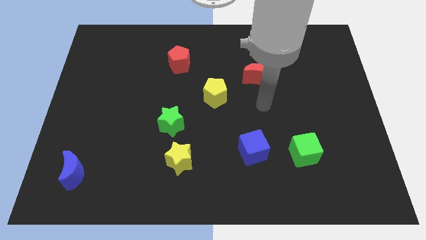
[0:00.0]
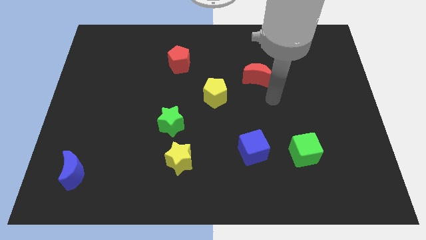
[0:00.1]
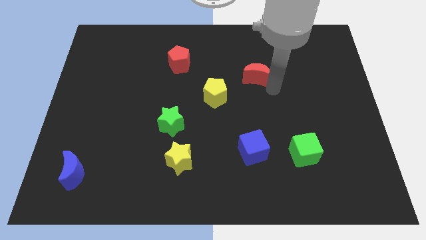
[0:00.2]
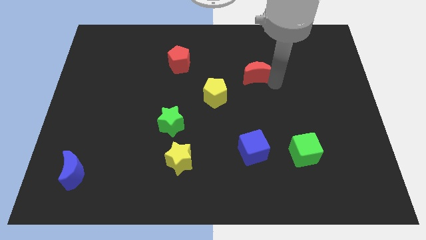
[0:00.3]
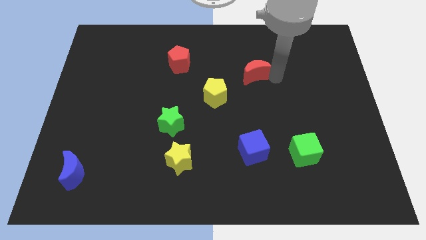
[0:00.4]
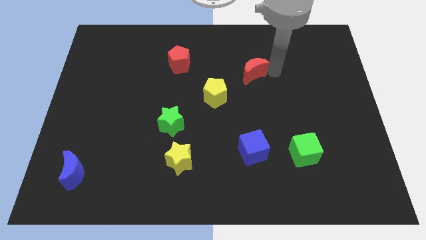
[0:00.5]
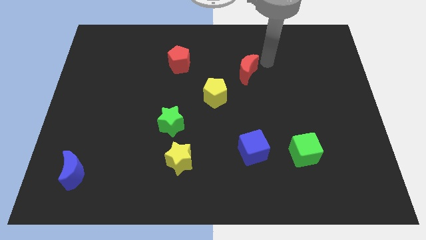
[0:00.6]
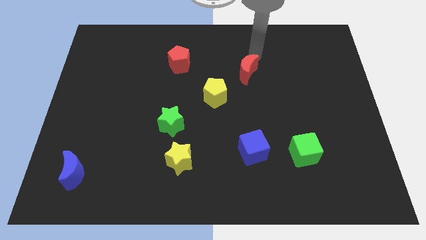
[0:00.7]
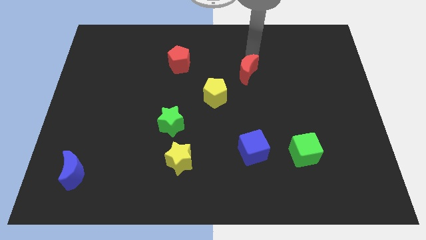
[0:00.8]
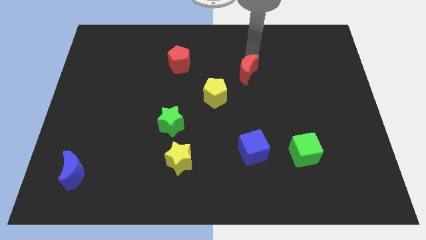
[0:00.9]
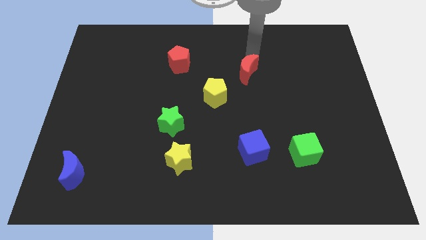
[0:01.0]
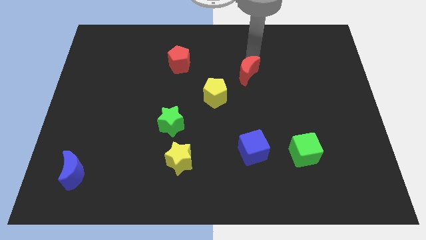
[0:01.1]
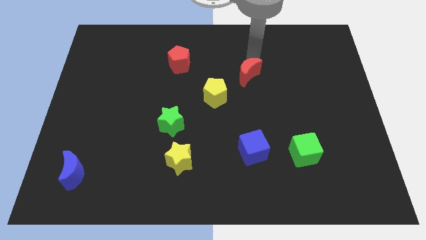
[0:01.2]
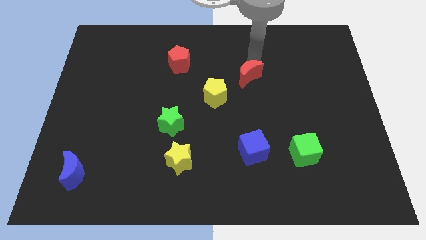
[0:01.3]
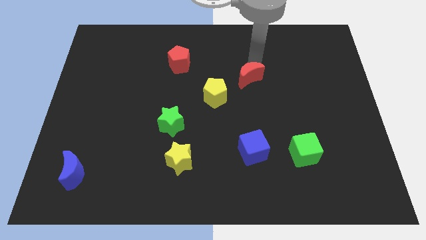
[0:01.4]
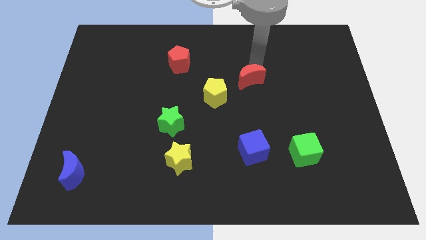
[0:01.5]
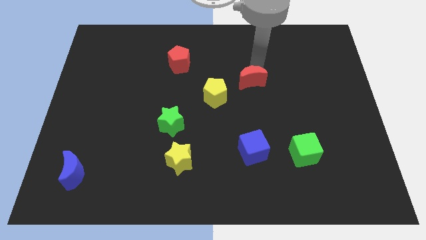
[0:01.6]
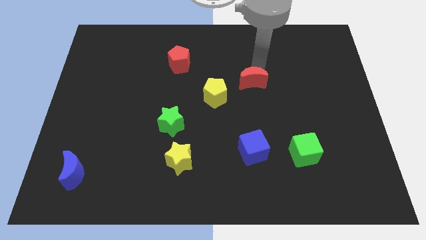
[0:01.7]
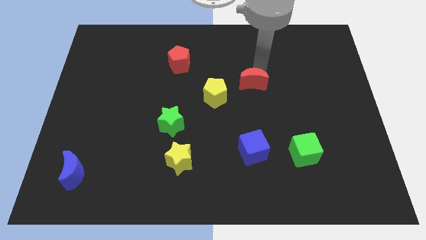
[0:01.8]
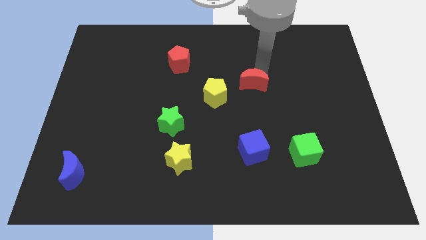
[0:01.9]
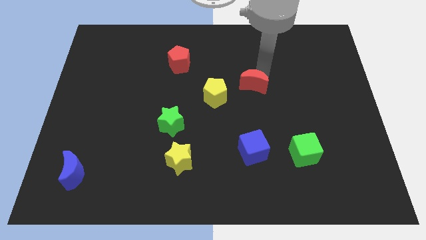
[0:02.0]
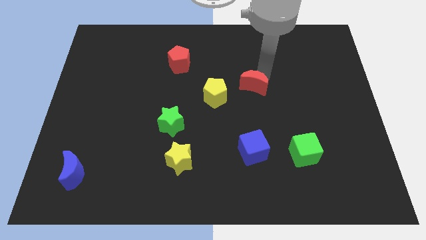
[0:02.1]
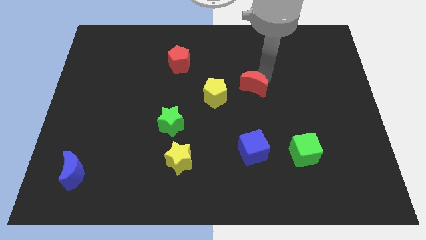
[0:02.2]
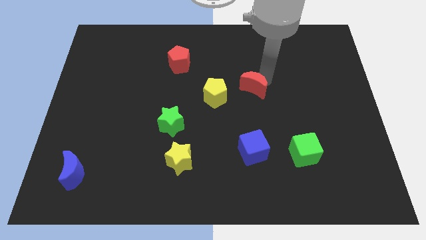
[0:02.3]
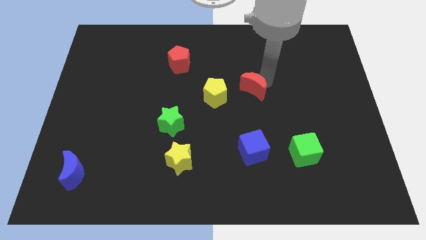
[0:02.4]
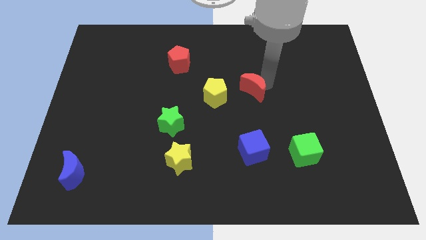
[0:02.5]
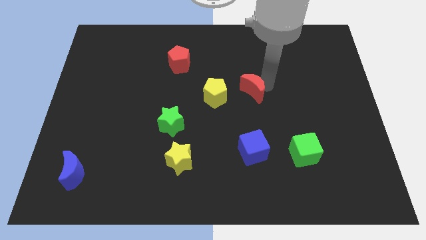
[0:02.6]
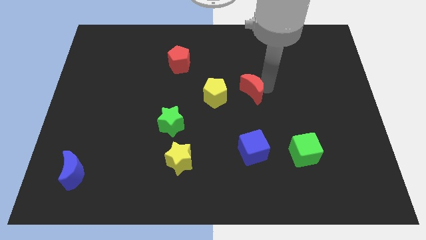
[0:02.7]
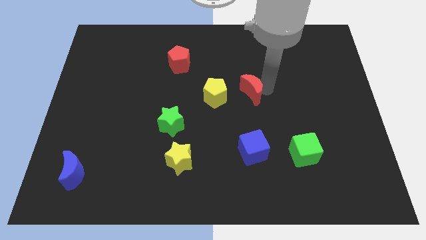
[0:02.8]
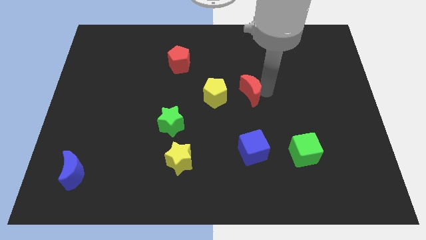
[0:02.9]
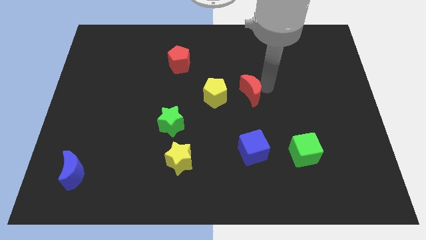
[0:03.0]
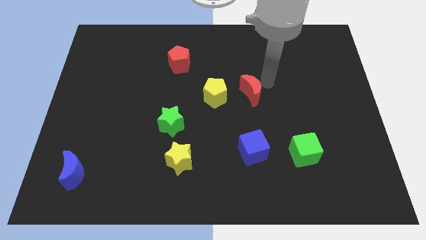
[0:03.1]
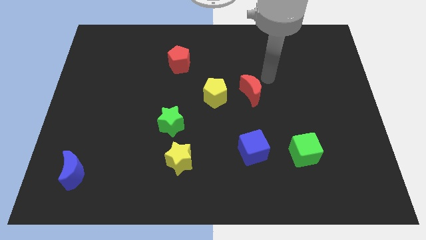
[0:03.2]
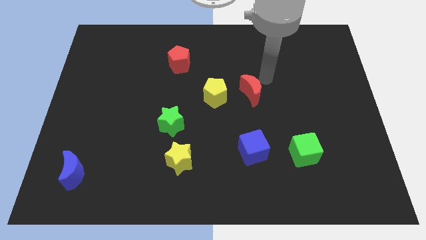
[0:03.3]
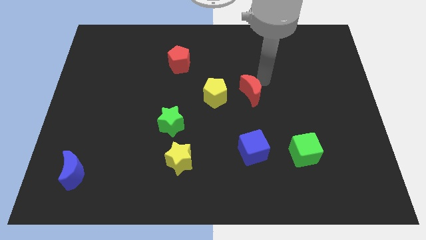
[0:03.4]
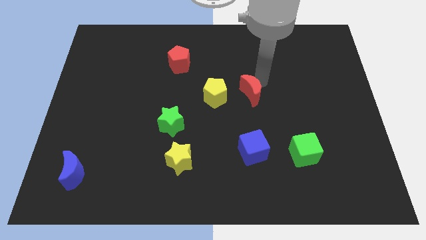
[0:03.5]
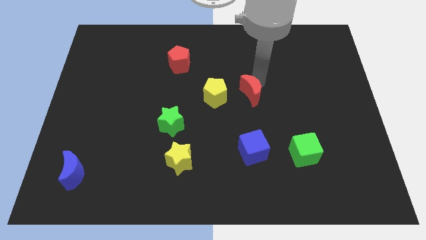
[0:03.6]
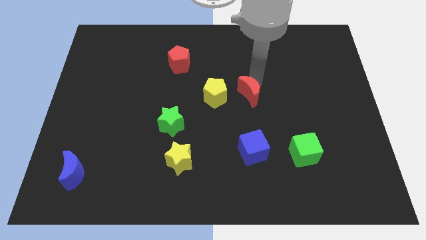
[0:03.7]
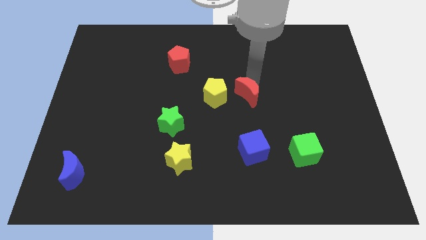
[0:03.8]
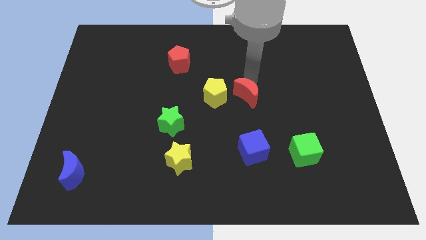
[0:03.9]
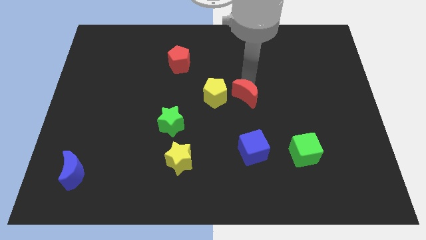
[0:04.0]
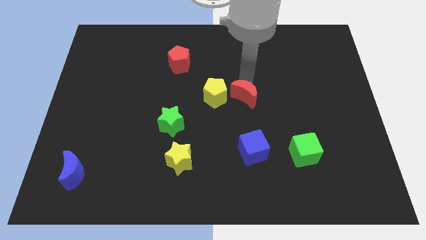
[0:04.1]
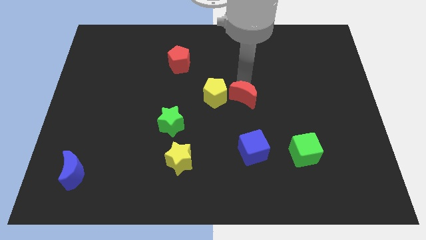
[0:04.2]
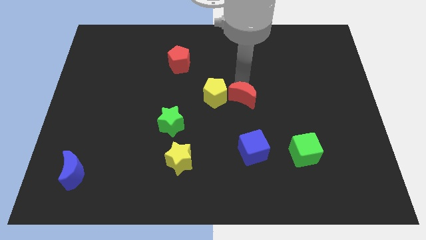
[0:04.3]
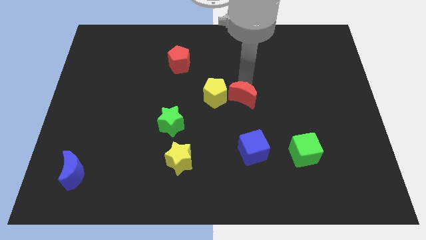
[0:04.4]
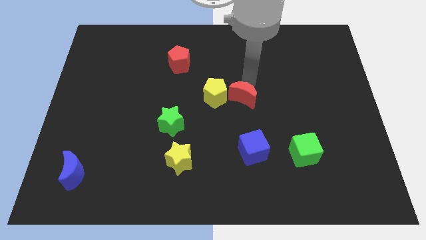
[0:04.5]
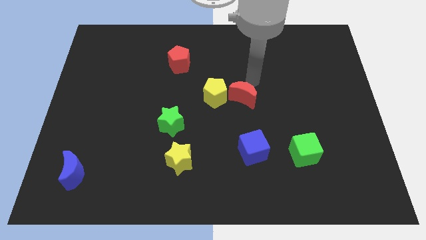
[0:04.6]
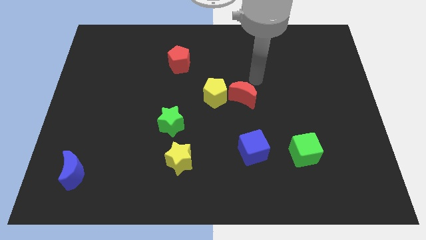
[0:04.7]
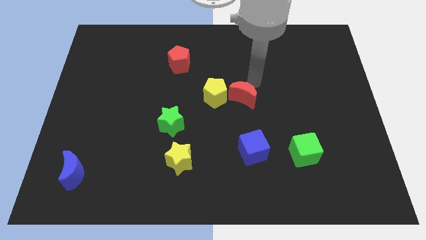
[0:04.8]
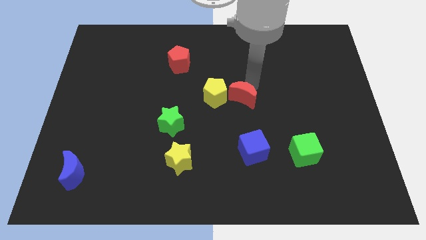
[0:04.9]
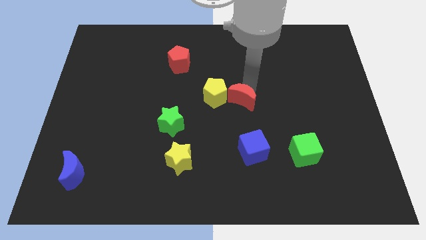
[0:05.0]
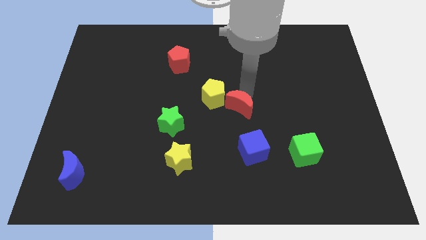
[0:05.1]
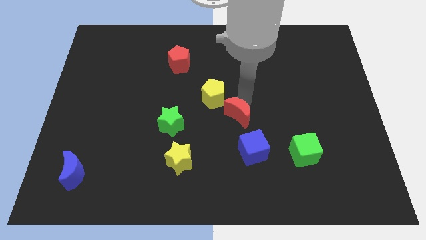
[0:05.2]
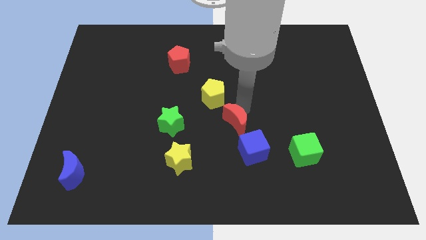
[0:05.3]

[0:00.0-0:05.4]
move the red moon below the yellow pentagon

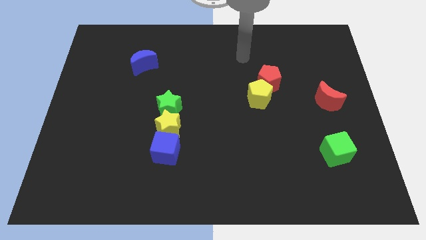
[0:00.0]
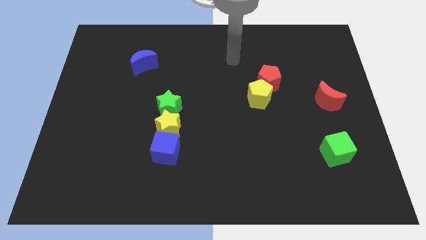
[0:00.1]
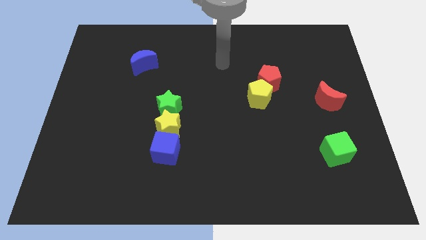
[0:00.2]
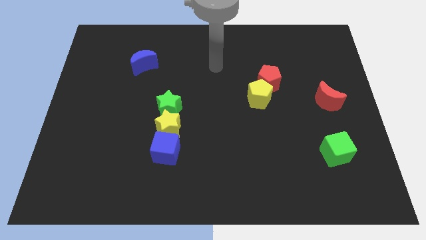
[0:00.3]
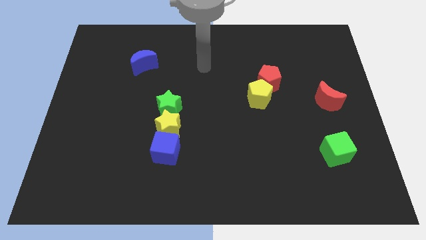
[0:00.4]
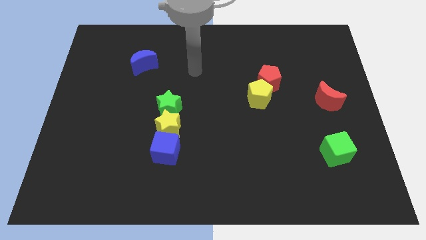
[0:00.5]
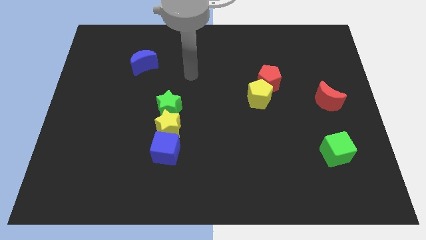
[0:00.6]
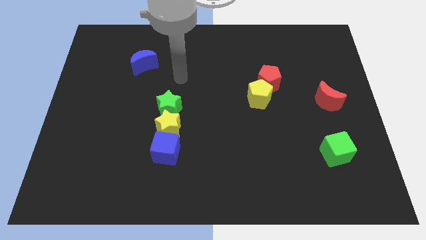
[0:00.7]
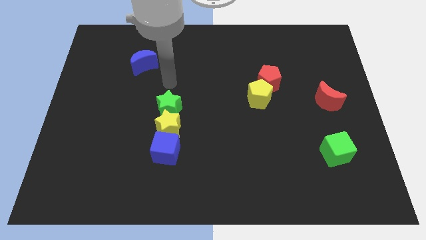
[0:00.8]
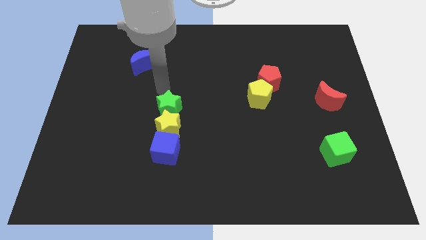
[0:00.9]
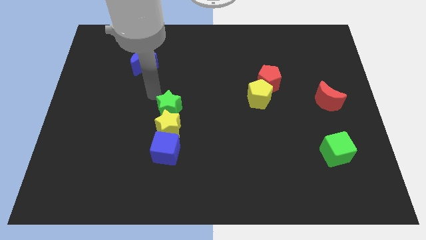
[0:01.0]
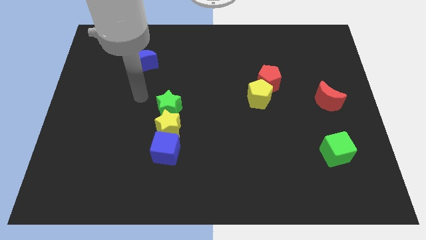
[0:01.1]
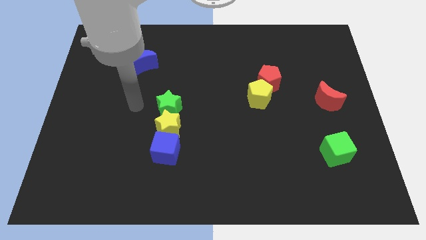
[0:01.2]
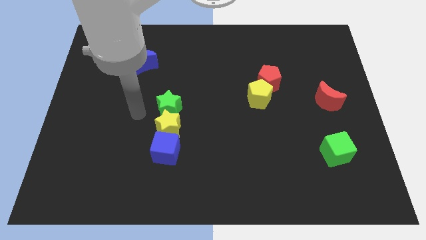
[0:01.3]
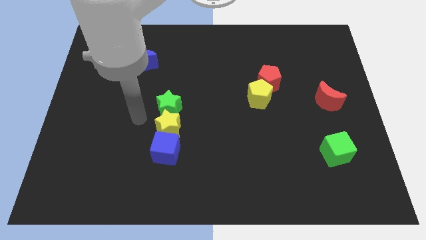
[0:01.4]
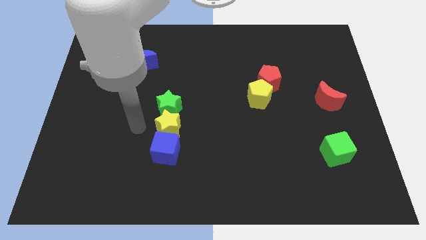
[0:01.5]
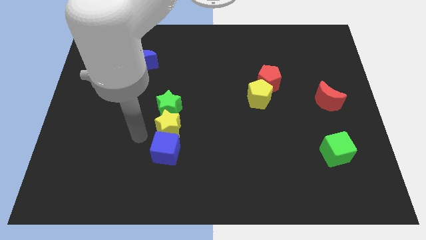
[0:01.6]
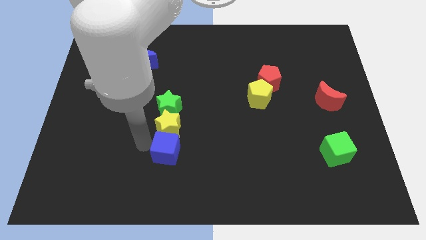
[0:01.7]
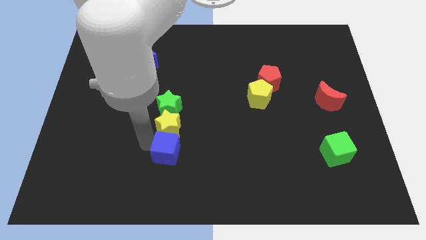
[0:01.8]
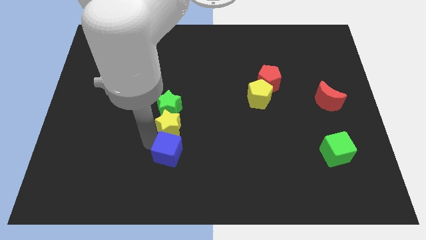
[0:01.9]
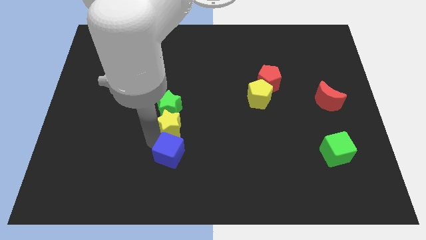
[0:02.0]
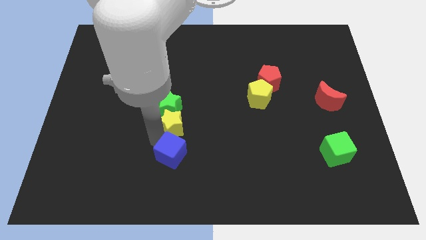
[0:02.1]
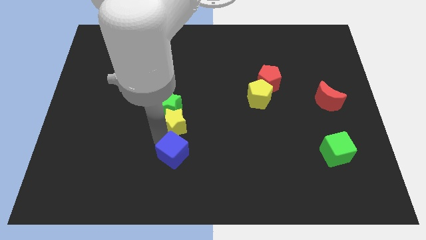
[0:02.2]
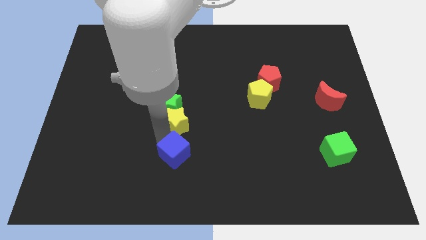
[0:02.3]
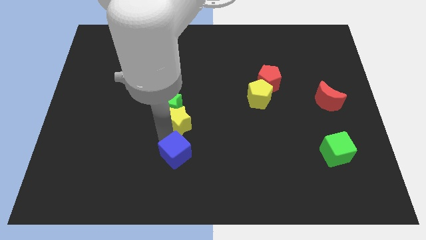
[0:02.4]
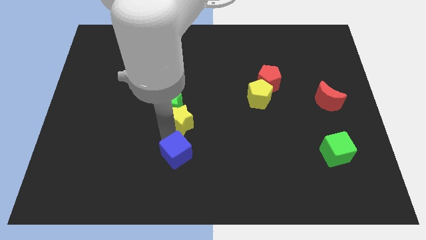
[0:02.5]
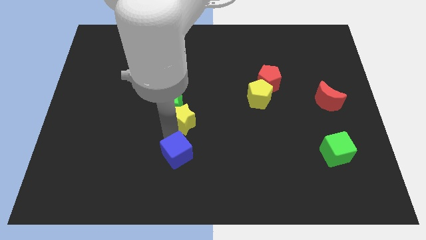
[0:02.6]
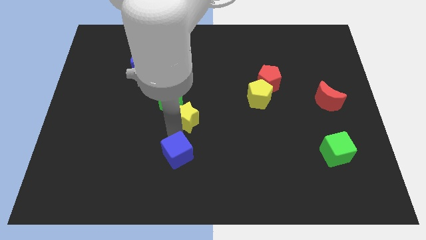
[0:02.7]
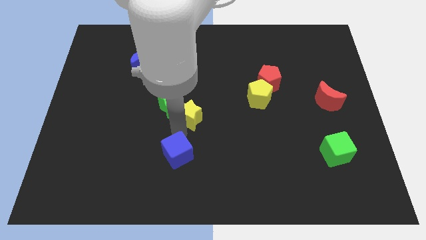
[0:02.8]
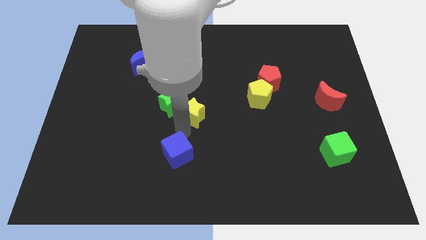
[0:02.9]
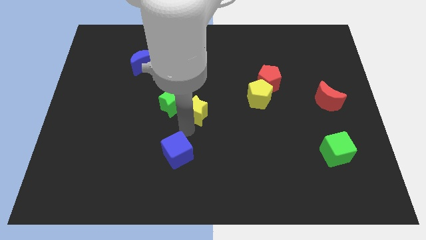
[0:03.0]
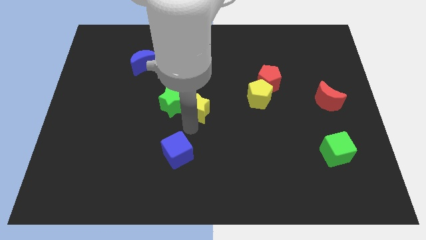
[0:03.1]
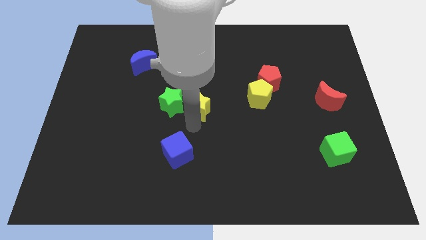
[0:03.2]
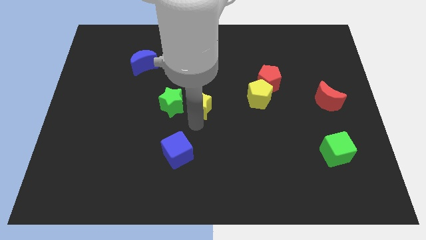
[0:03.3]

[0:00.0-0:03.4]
slide the yellow star to the top right side of the green star
